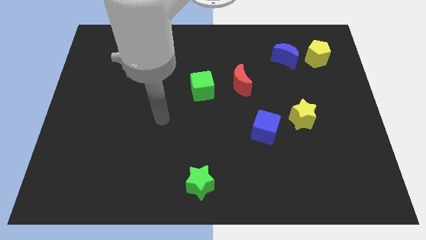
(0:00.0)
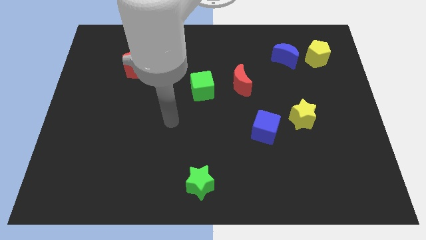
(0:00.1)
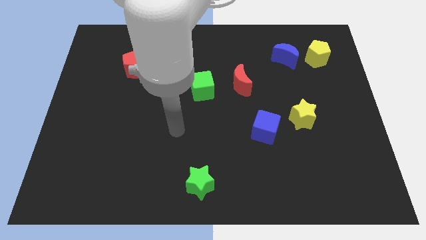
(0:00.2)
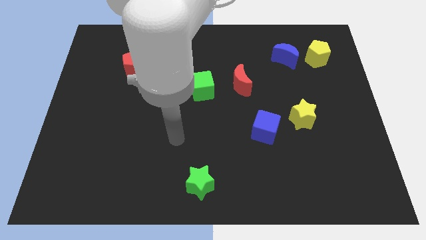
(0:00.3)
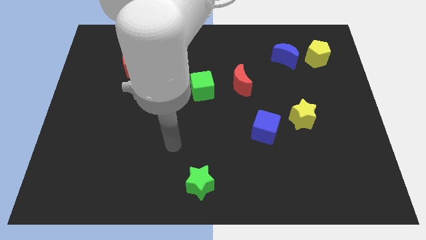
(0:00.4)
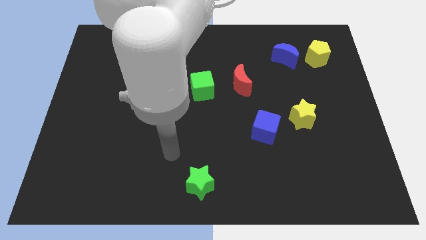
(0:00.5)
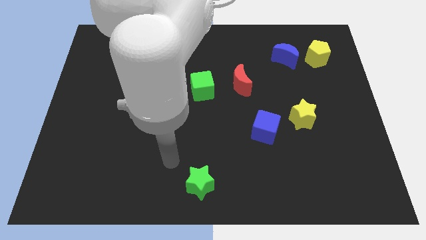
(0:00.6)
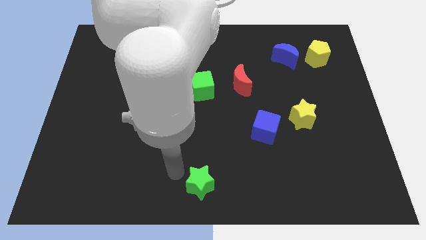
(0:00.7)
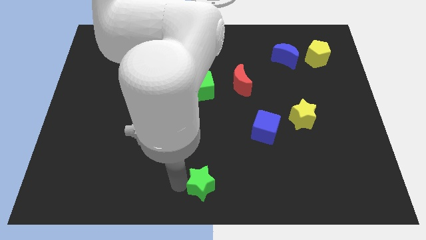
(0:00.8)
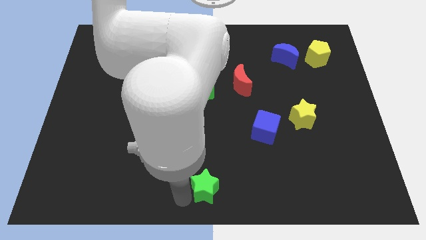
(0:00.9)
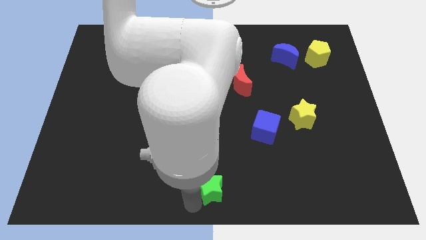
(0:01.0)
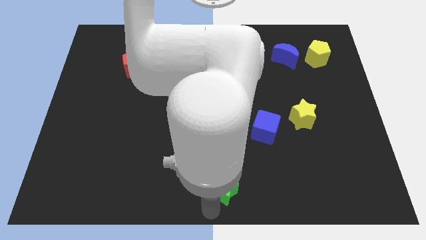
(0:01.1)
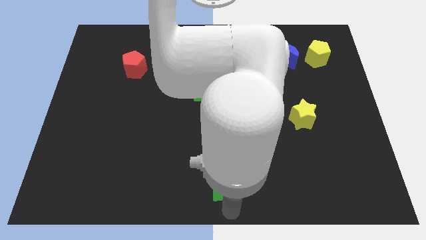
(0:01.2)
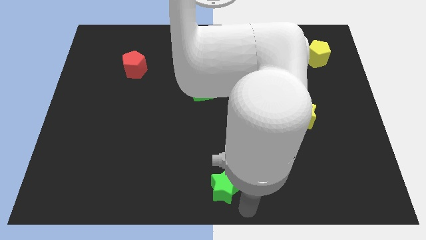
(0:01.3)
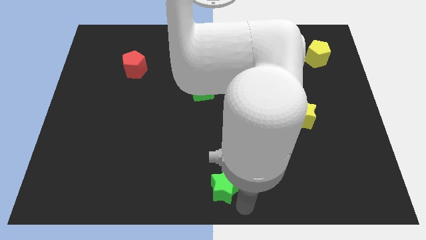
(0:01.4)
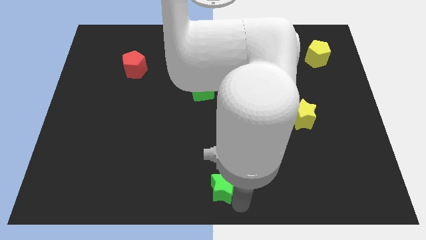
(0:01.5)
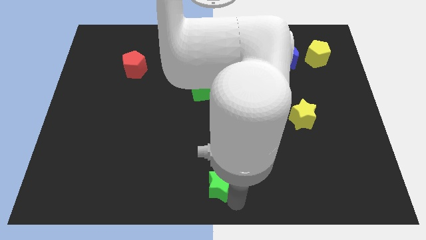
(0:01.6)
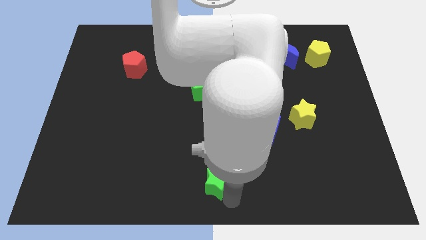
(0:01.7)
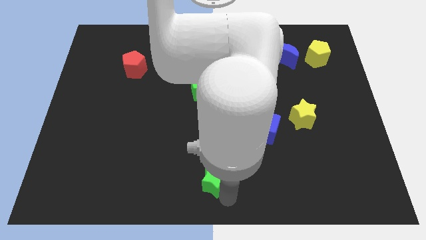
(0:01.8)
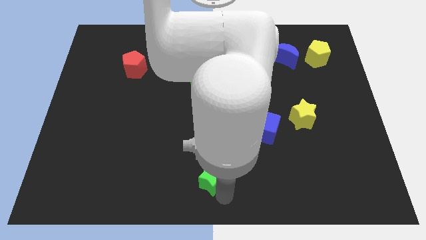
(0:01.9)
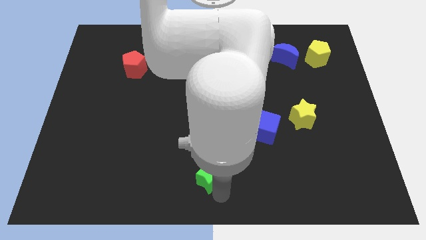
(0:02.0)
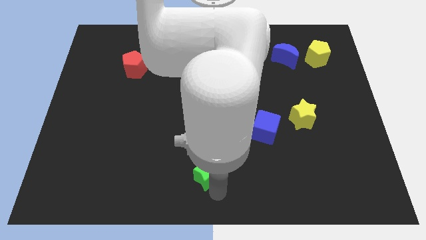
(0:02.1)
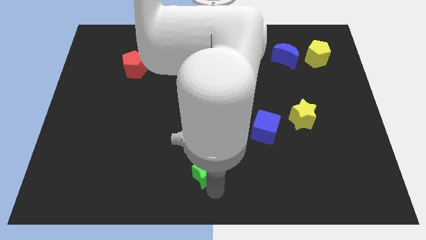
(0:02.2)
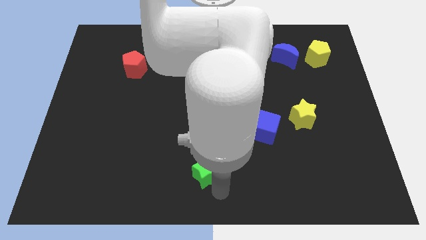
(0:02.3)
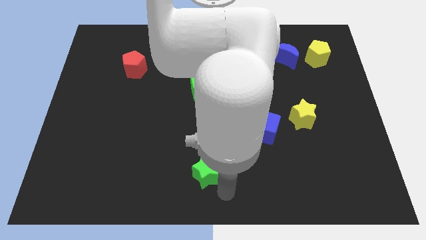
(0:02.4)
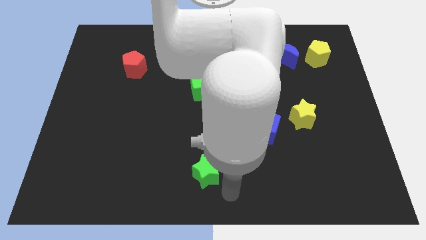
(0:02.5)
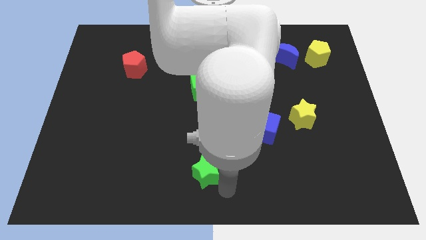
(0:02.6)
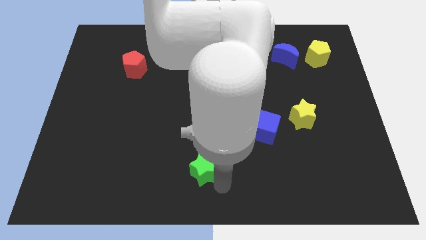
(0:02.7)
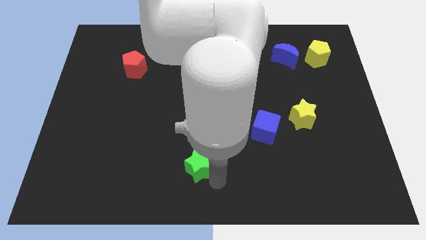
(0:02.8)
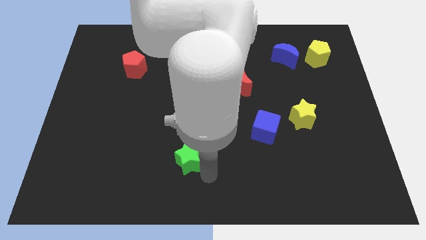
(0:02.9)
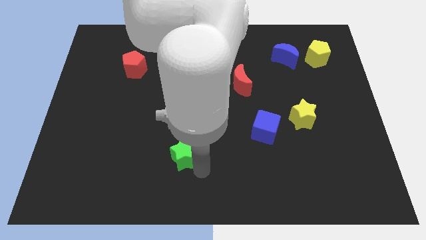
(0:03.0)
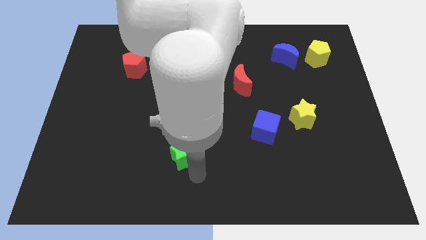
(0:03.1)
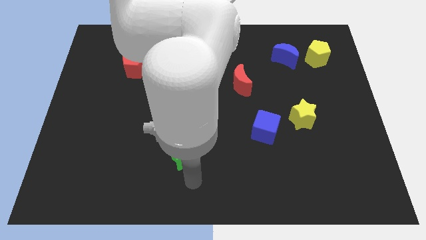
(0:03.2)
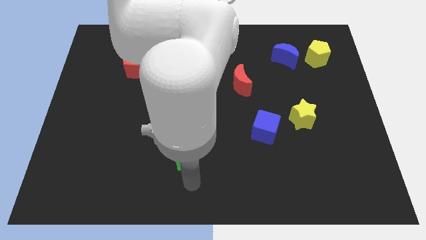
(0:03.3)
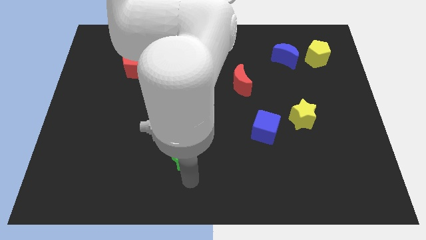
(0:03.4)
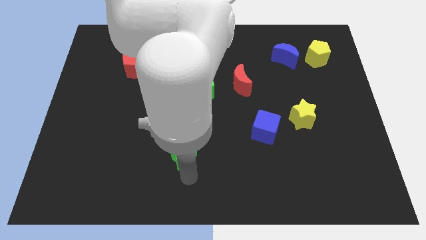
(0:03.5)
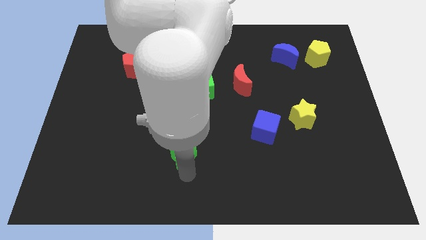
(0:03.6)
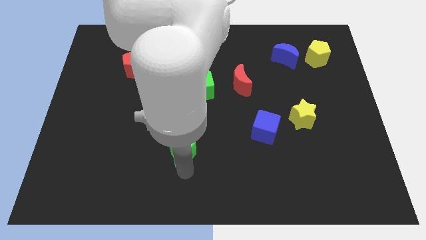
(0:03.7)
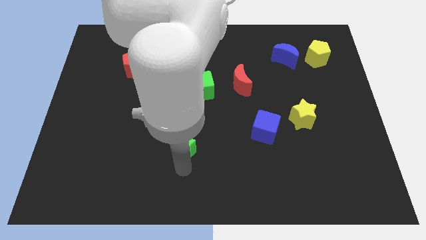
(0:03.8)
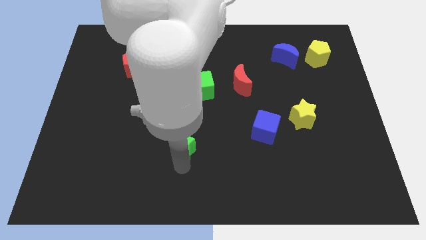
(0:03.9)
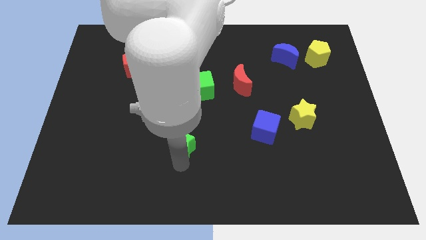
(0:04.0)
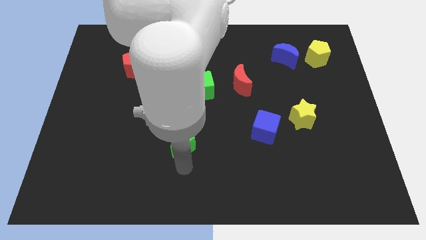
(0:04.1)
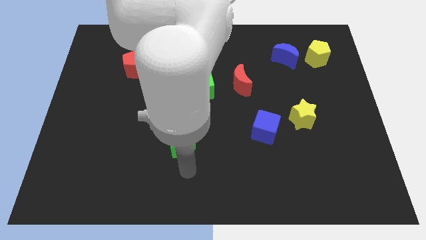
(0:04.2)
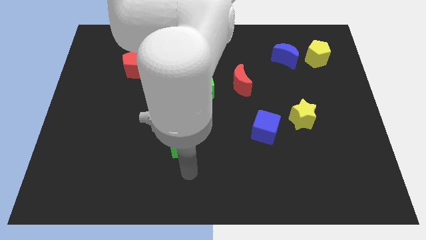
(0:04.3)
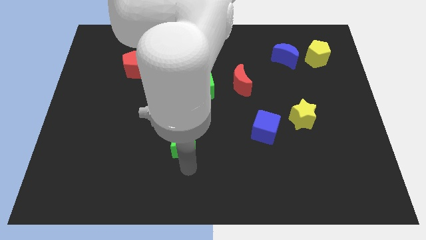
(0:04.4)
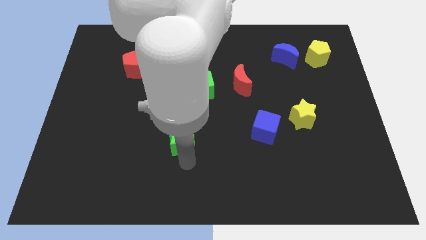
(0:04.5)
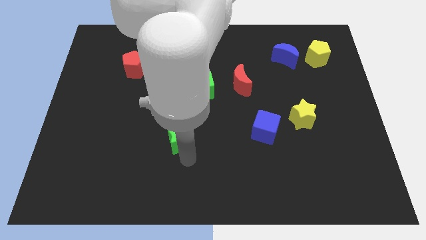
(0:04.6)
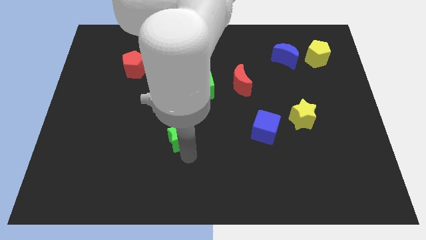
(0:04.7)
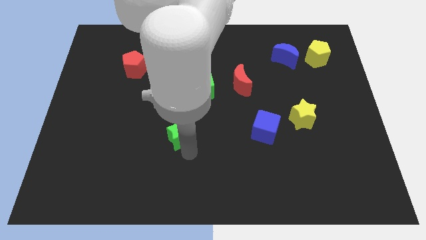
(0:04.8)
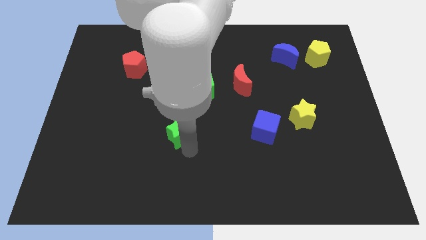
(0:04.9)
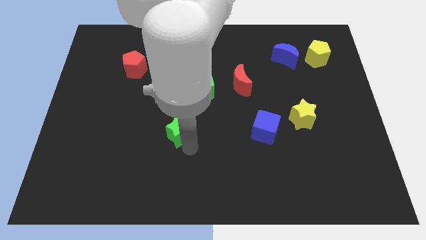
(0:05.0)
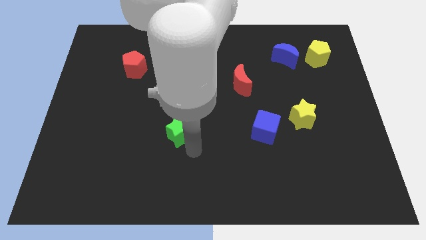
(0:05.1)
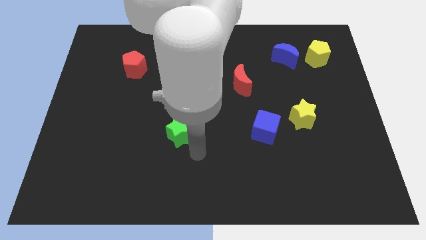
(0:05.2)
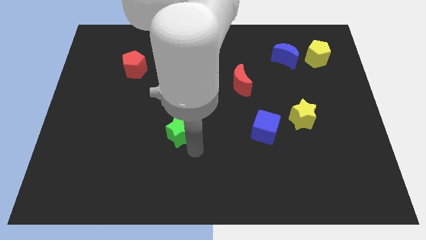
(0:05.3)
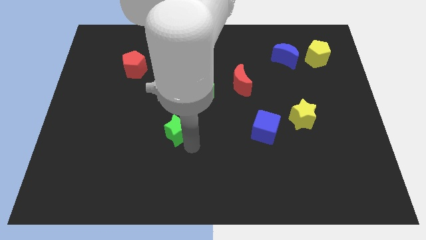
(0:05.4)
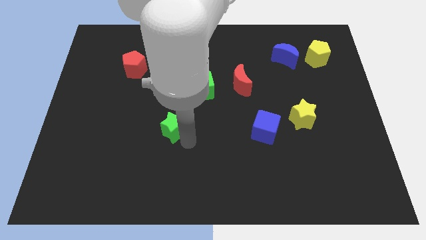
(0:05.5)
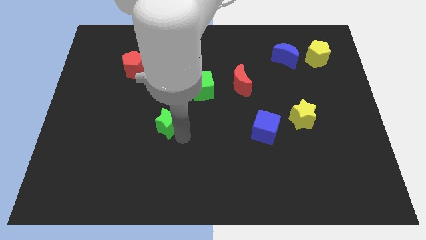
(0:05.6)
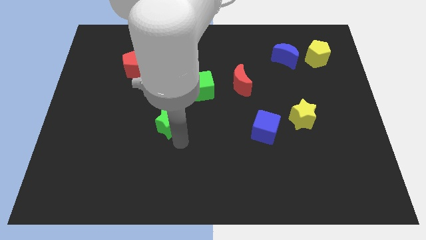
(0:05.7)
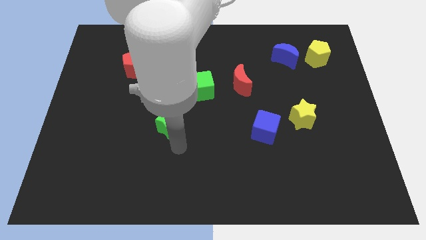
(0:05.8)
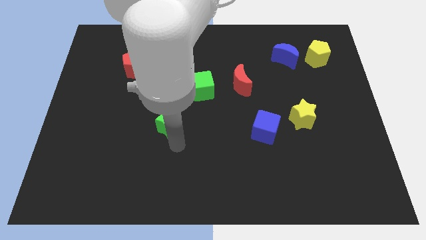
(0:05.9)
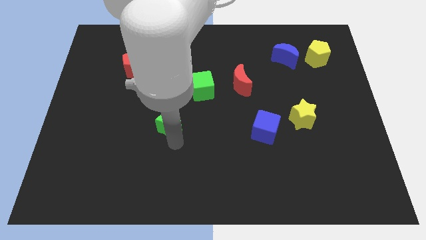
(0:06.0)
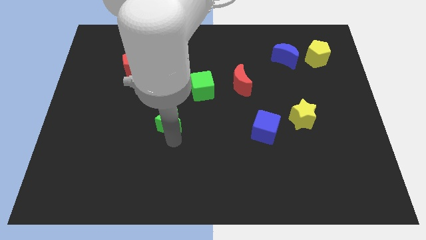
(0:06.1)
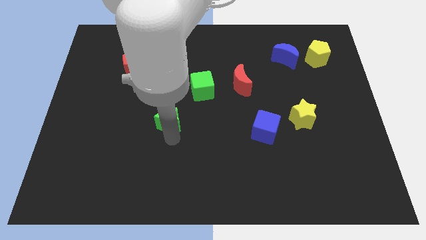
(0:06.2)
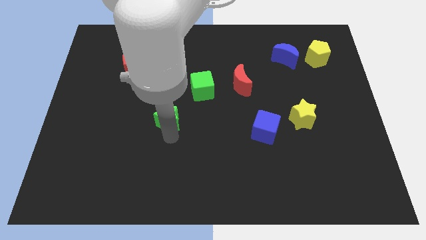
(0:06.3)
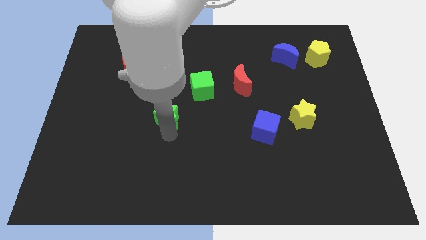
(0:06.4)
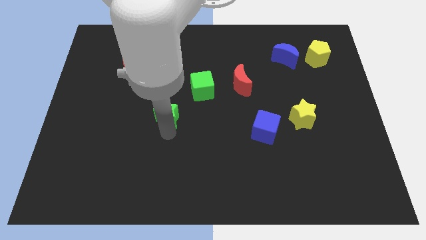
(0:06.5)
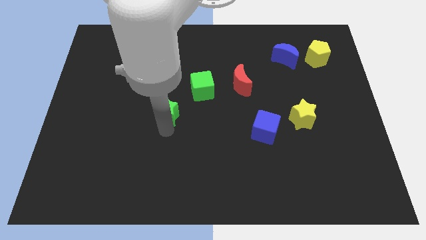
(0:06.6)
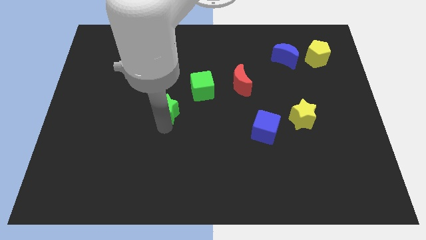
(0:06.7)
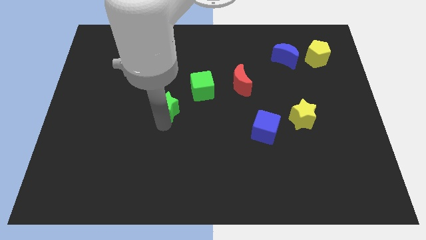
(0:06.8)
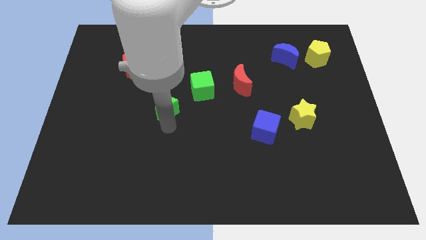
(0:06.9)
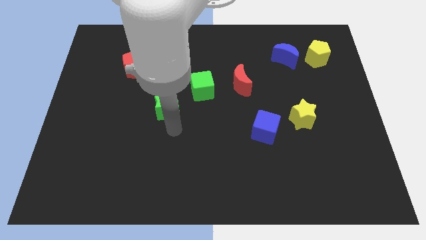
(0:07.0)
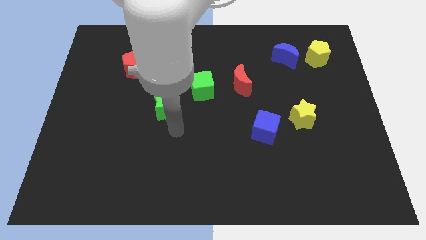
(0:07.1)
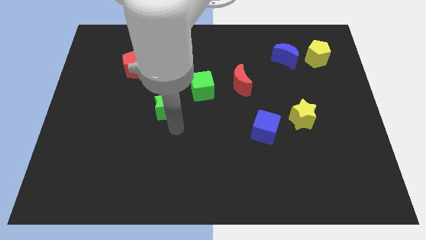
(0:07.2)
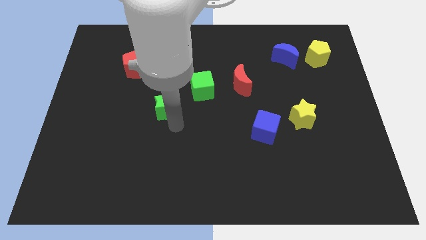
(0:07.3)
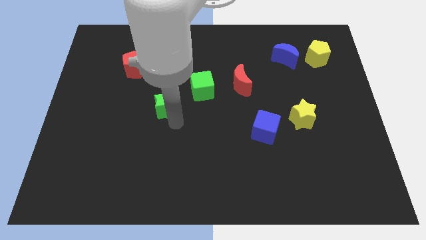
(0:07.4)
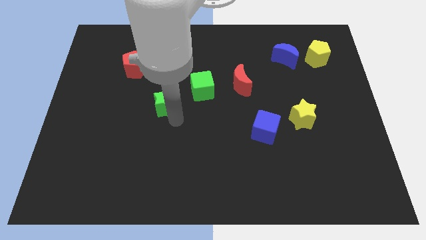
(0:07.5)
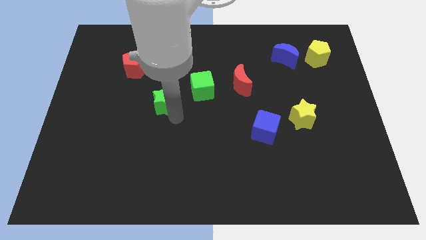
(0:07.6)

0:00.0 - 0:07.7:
put the green star to the left side of the green cube
